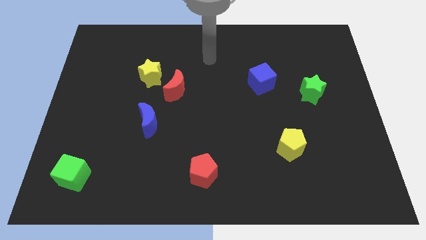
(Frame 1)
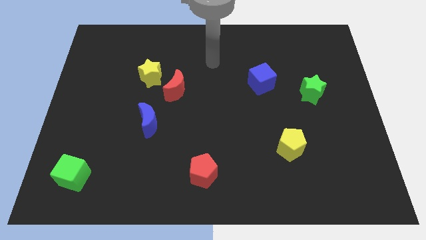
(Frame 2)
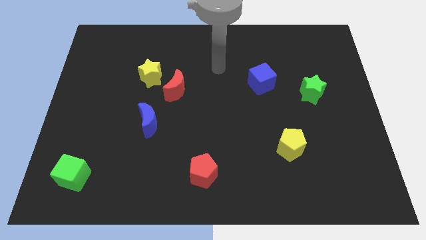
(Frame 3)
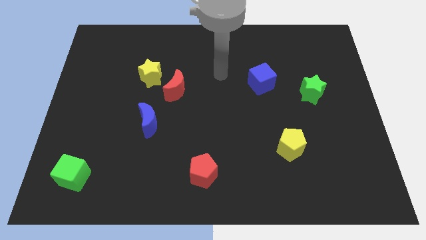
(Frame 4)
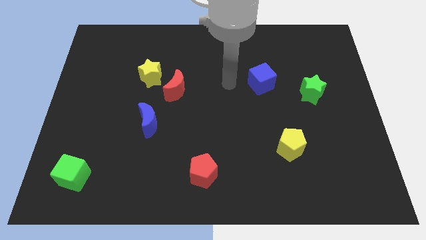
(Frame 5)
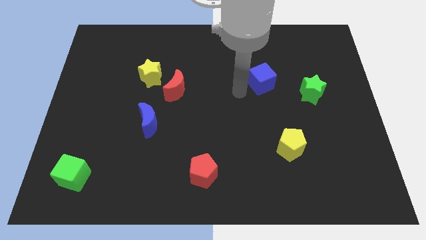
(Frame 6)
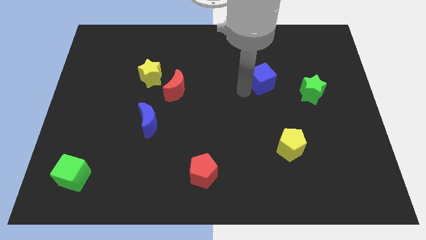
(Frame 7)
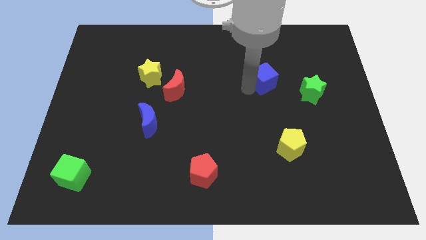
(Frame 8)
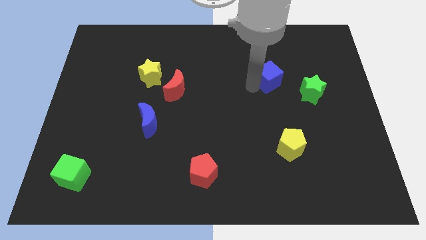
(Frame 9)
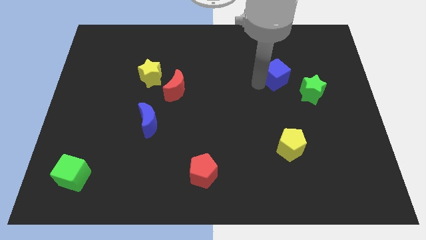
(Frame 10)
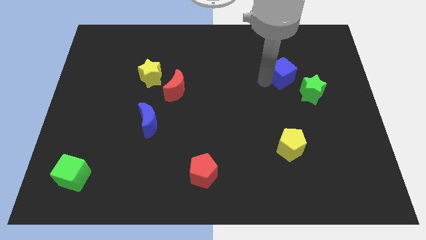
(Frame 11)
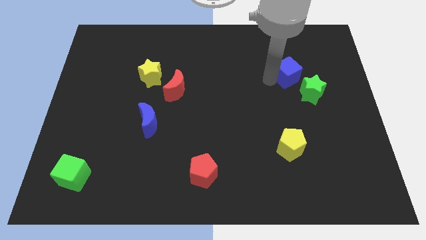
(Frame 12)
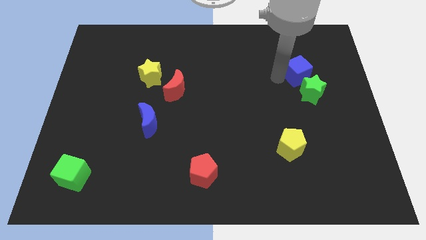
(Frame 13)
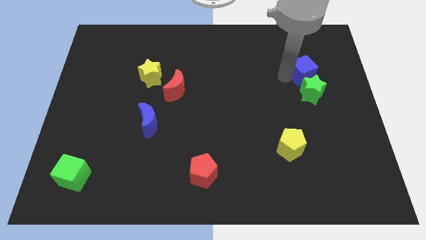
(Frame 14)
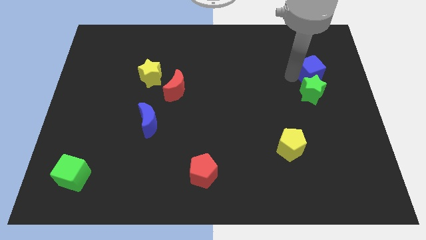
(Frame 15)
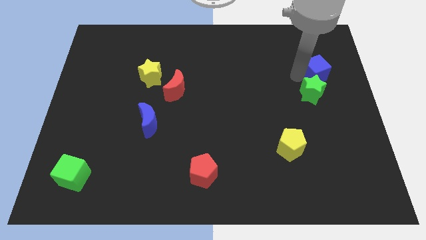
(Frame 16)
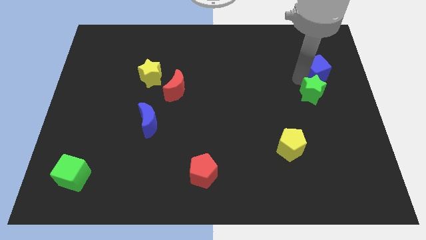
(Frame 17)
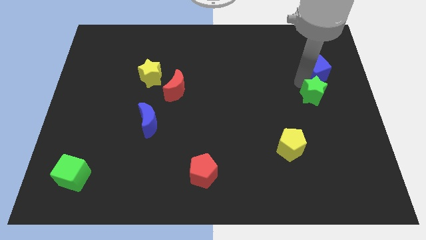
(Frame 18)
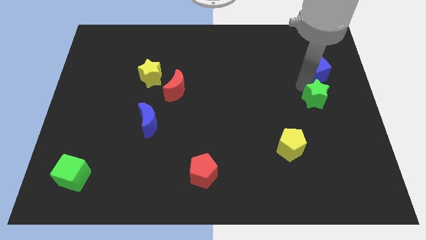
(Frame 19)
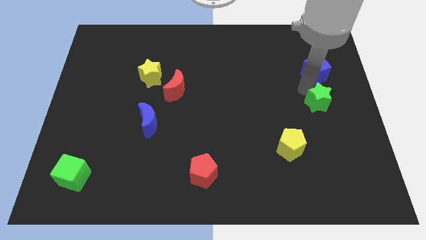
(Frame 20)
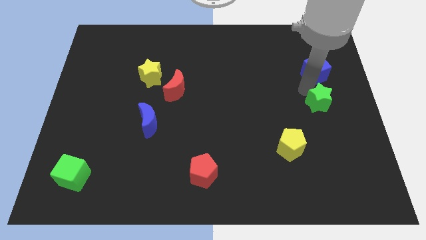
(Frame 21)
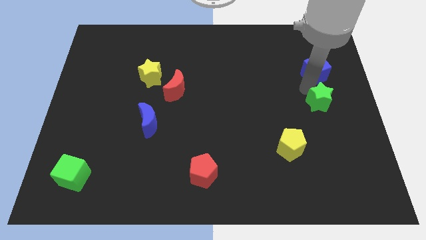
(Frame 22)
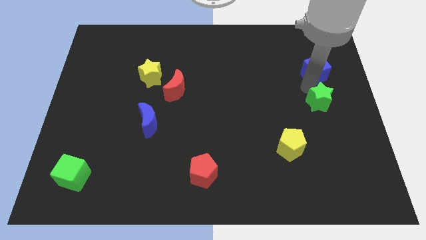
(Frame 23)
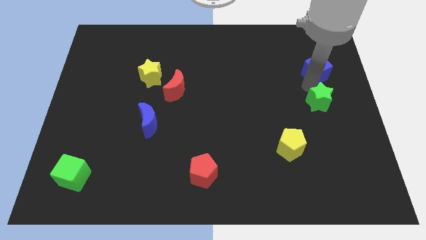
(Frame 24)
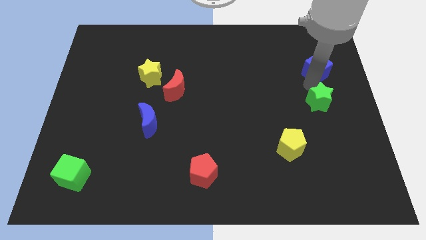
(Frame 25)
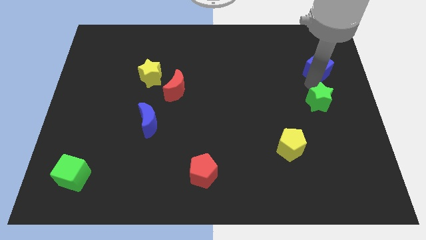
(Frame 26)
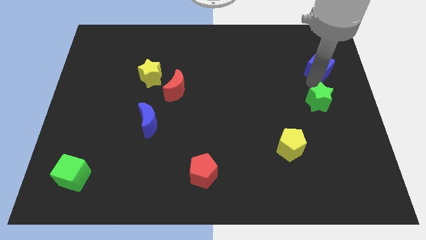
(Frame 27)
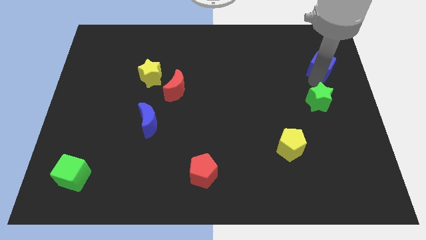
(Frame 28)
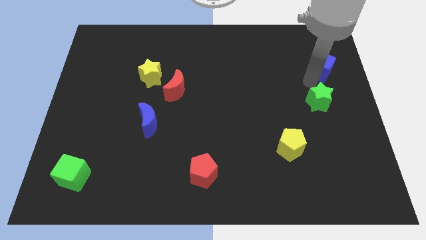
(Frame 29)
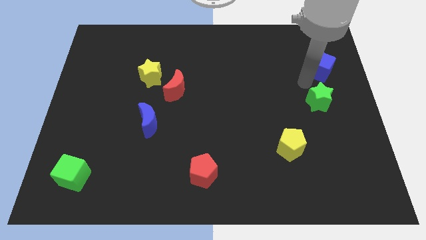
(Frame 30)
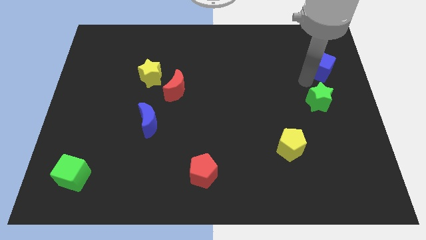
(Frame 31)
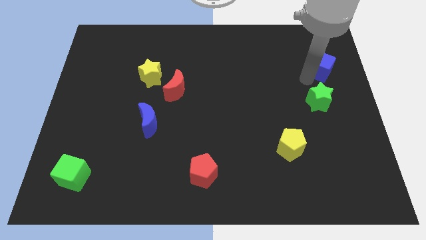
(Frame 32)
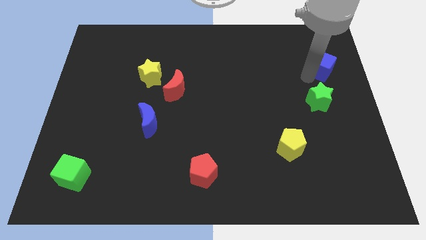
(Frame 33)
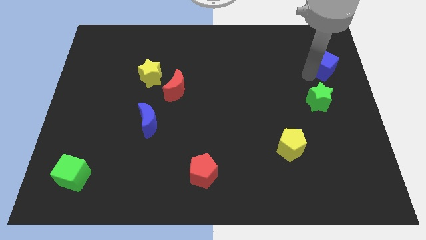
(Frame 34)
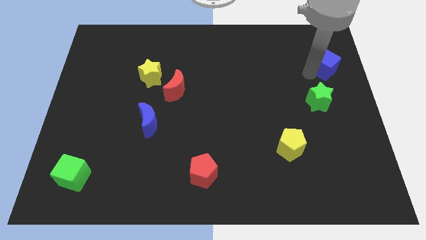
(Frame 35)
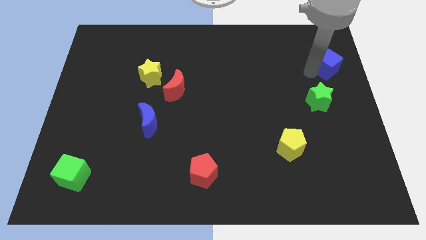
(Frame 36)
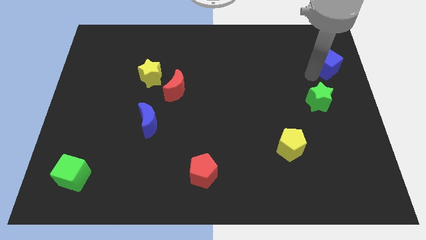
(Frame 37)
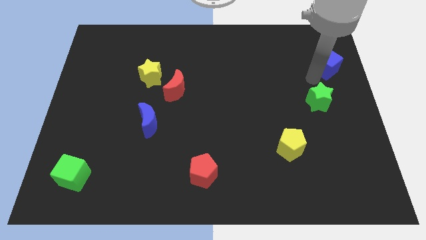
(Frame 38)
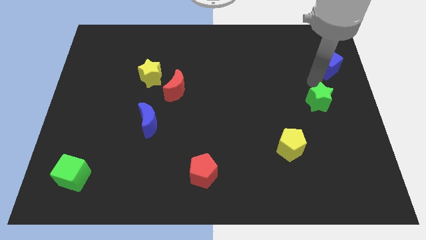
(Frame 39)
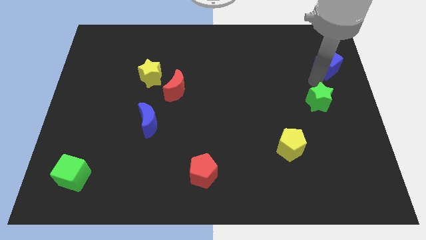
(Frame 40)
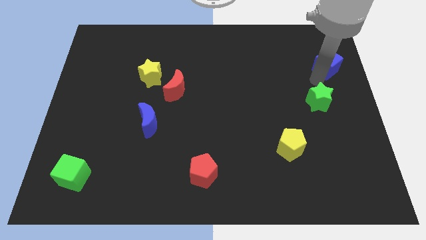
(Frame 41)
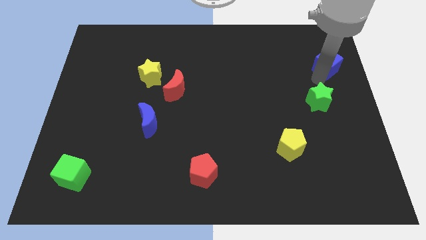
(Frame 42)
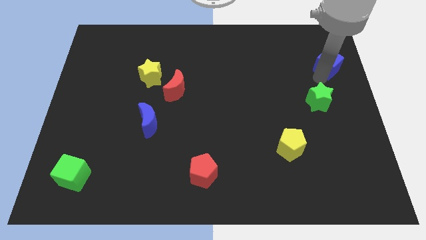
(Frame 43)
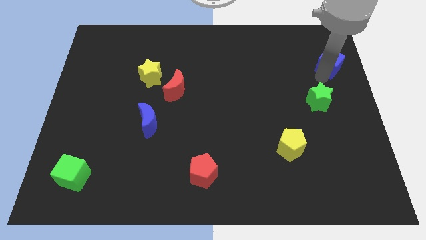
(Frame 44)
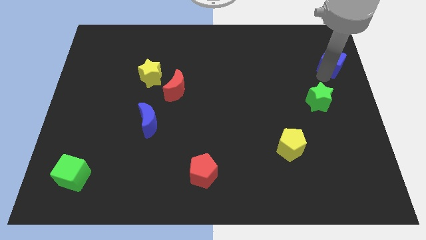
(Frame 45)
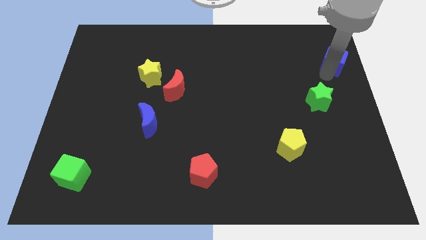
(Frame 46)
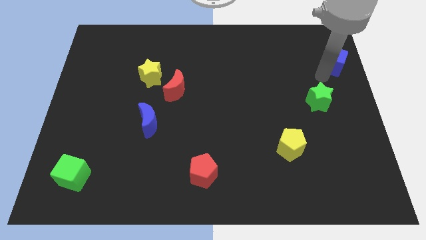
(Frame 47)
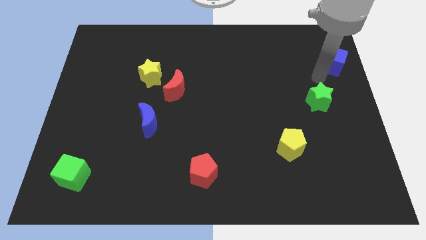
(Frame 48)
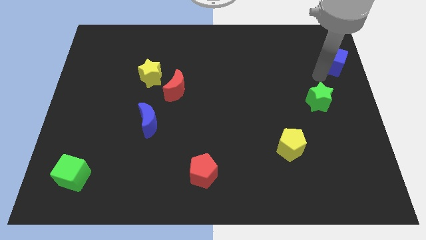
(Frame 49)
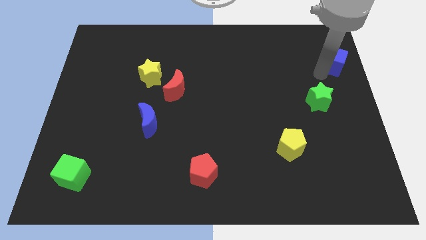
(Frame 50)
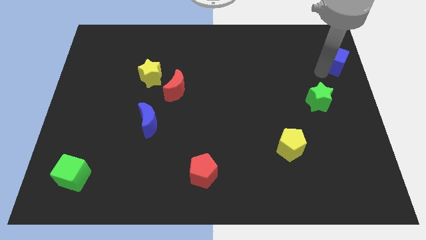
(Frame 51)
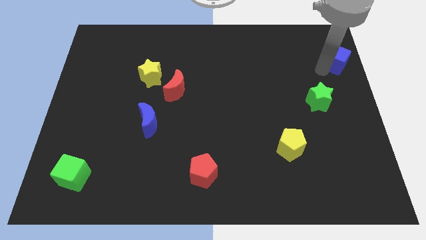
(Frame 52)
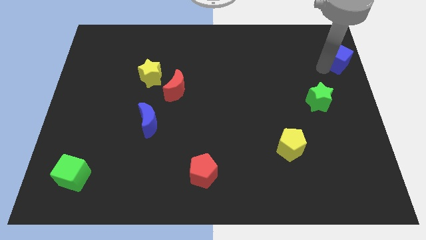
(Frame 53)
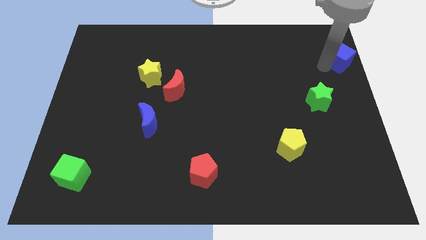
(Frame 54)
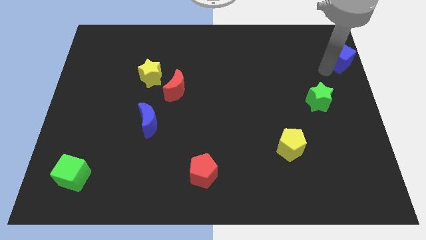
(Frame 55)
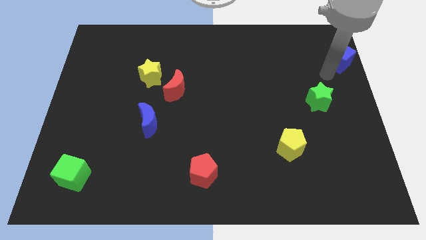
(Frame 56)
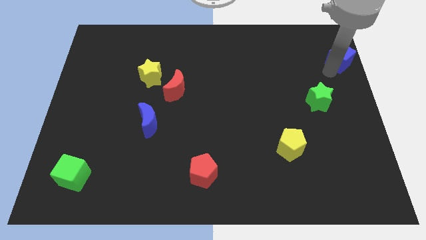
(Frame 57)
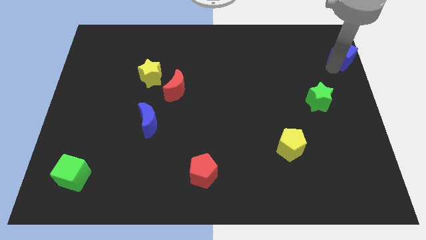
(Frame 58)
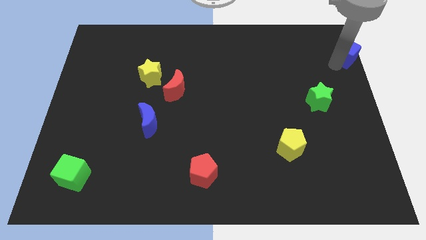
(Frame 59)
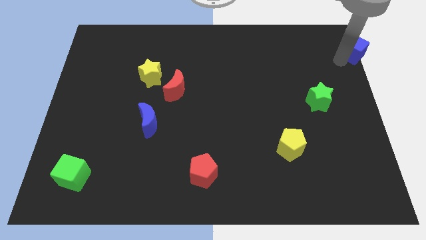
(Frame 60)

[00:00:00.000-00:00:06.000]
push the blue cube to the top right corner

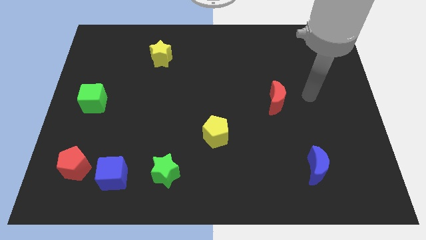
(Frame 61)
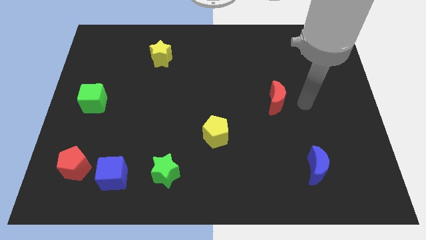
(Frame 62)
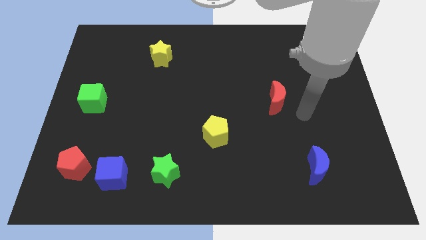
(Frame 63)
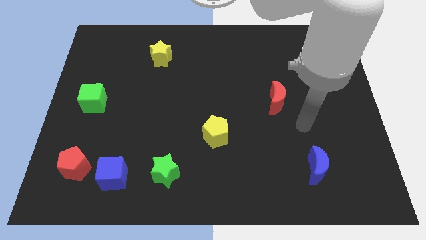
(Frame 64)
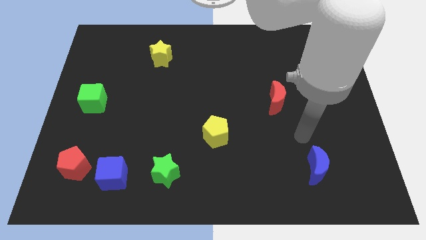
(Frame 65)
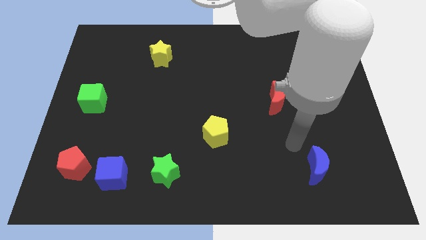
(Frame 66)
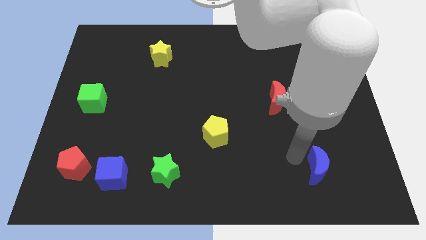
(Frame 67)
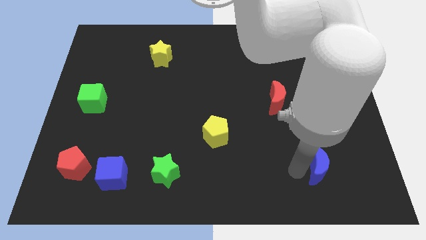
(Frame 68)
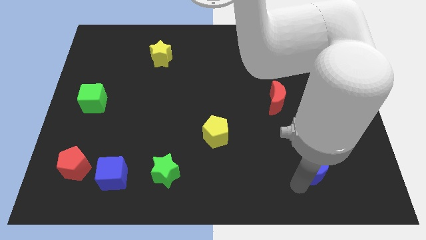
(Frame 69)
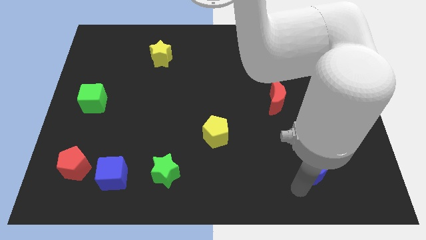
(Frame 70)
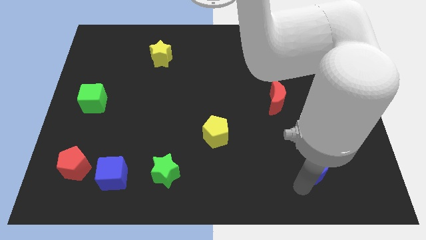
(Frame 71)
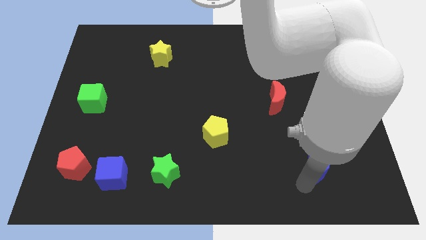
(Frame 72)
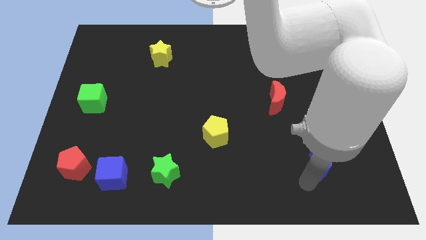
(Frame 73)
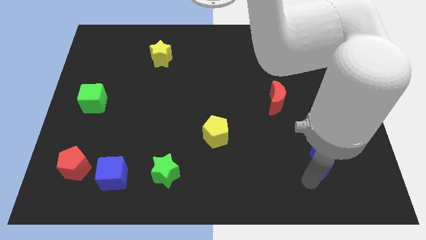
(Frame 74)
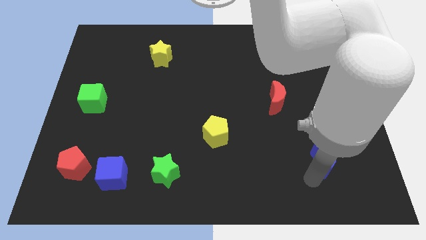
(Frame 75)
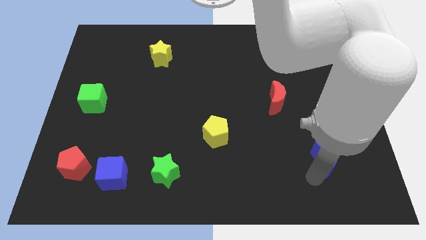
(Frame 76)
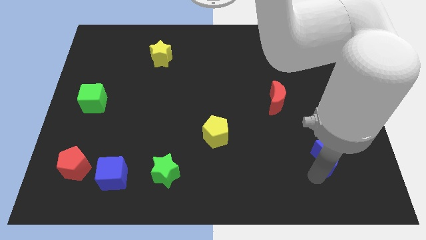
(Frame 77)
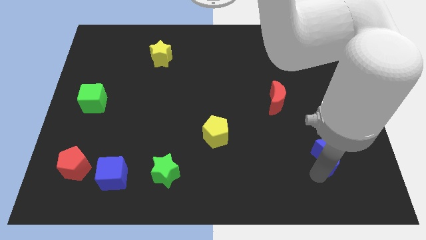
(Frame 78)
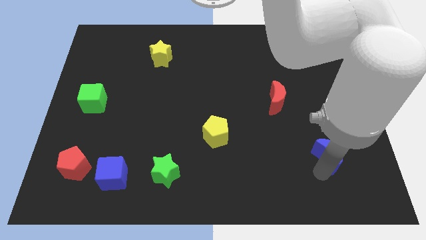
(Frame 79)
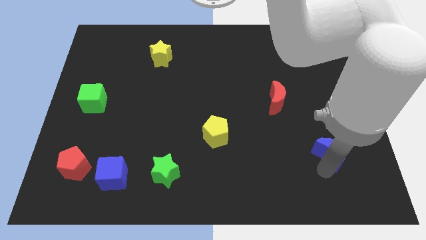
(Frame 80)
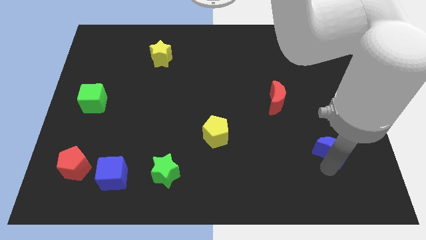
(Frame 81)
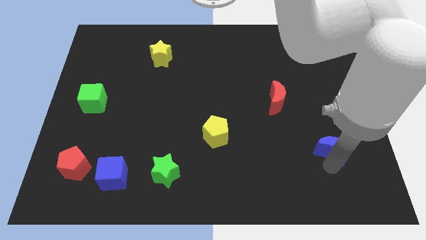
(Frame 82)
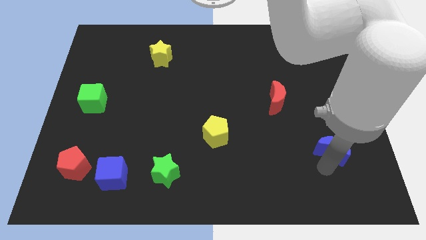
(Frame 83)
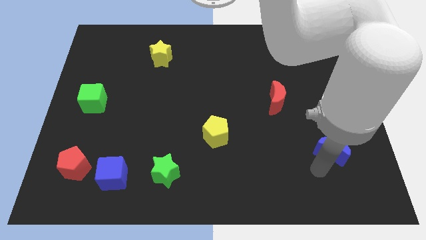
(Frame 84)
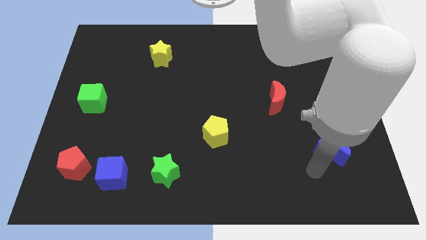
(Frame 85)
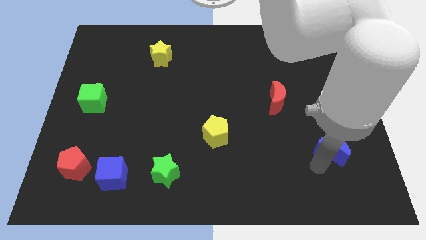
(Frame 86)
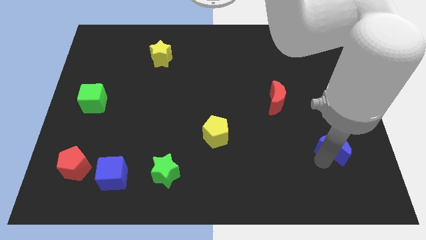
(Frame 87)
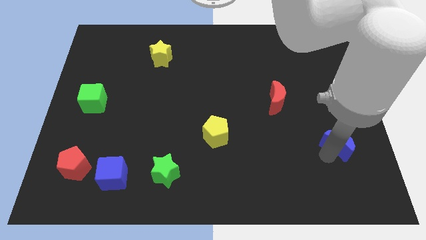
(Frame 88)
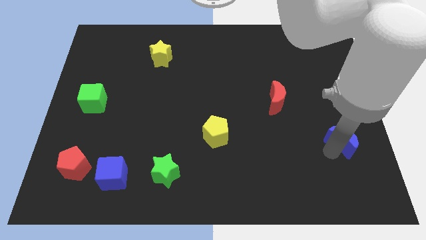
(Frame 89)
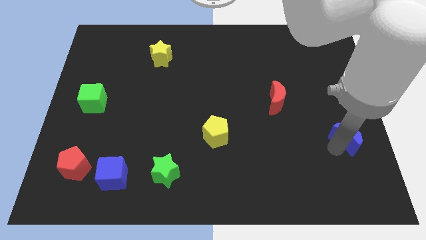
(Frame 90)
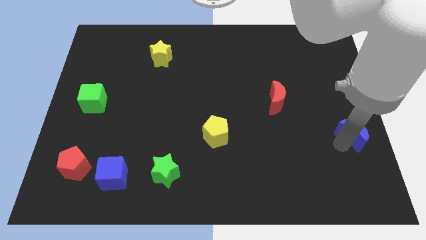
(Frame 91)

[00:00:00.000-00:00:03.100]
move the blue moon to the right side of the board
